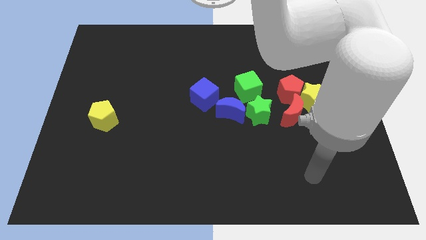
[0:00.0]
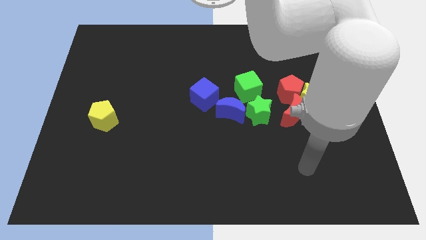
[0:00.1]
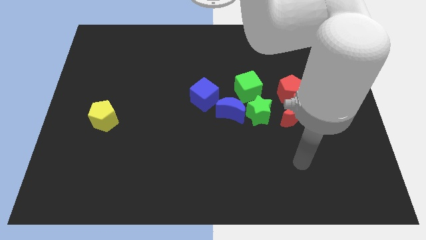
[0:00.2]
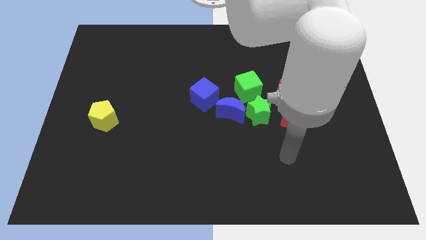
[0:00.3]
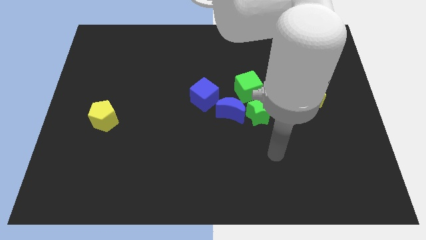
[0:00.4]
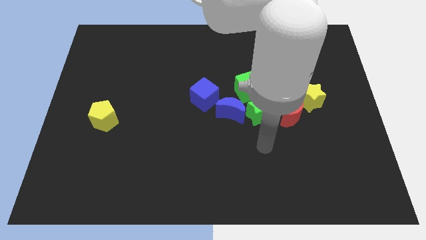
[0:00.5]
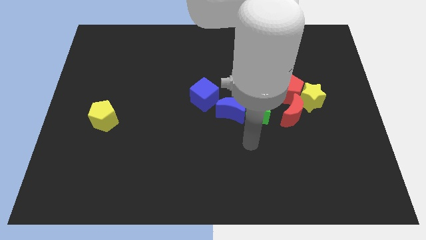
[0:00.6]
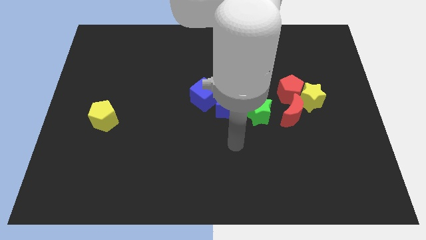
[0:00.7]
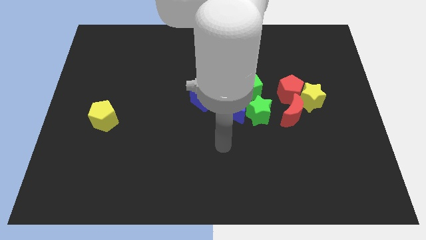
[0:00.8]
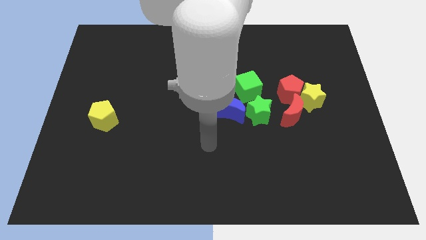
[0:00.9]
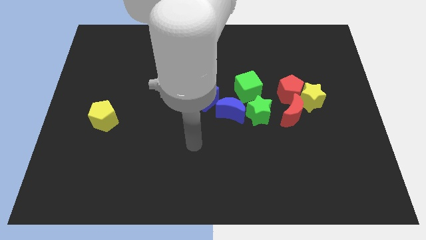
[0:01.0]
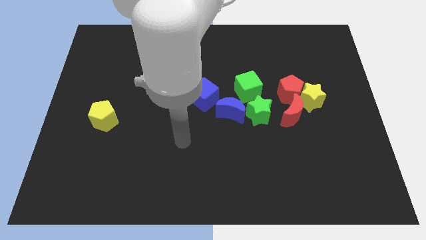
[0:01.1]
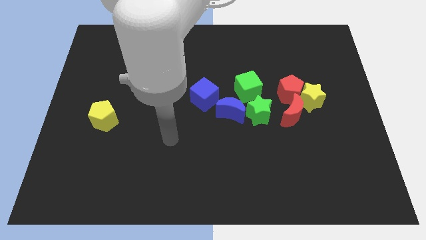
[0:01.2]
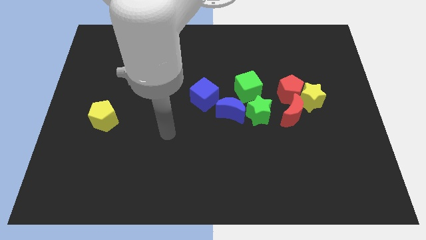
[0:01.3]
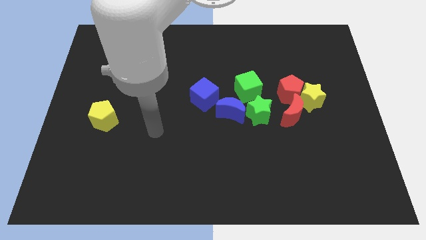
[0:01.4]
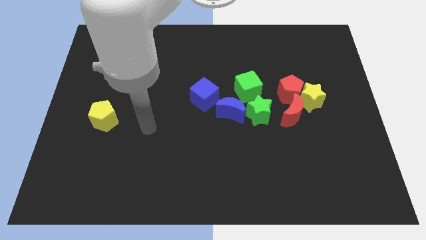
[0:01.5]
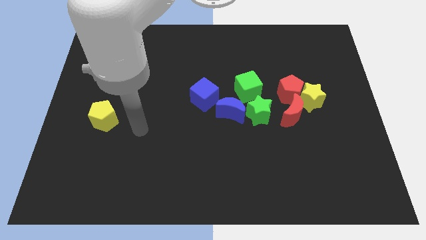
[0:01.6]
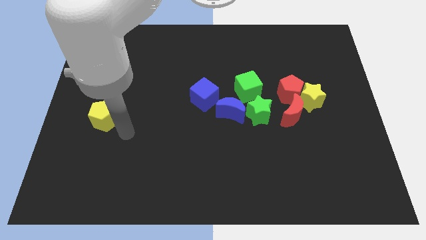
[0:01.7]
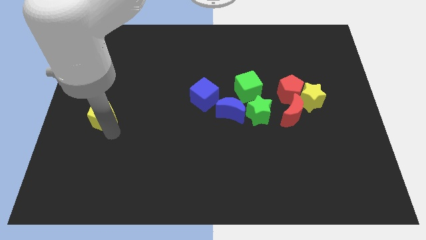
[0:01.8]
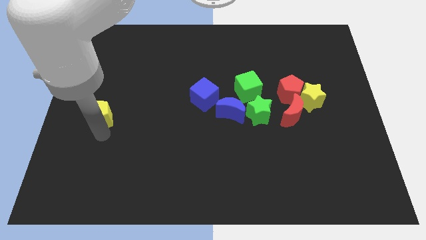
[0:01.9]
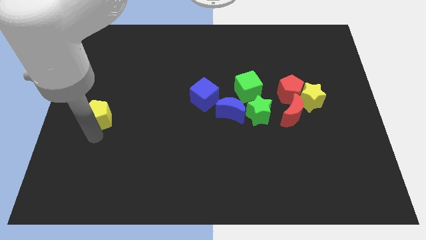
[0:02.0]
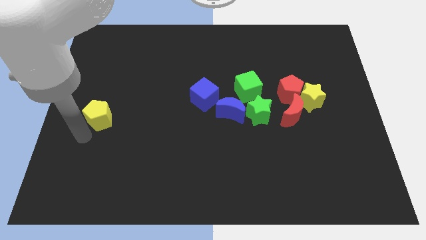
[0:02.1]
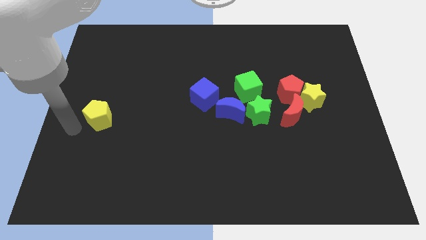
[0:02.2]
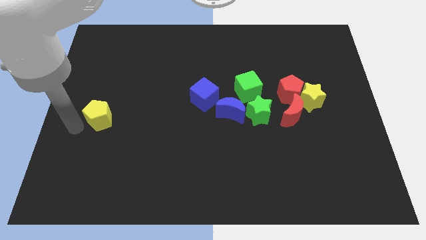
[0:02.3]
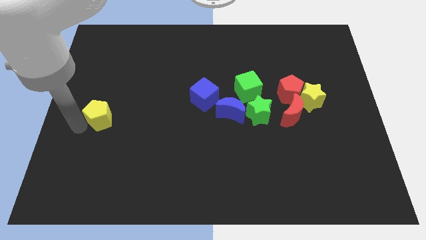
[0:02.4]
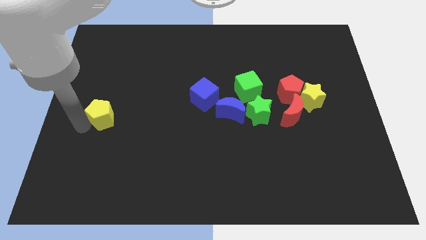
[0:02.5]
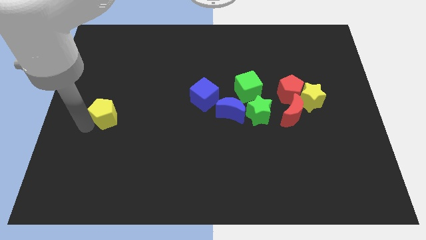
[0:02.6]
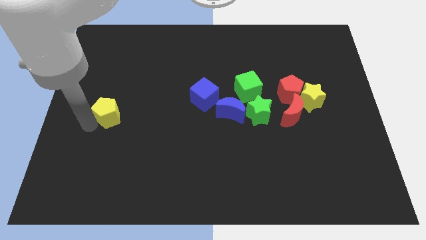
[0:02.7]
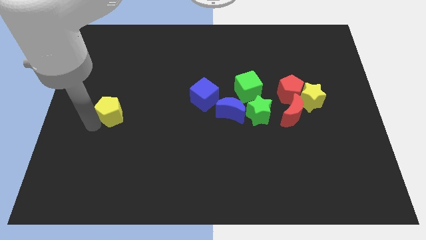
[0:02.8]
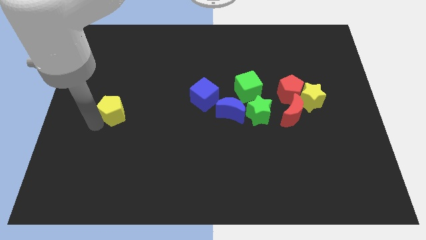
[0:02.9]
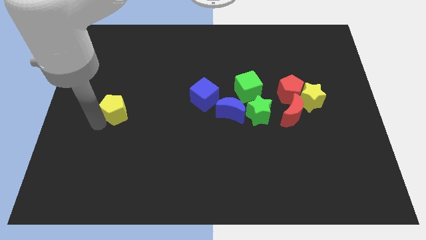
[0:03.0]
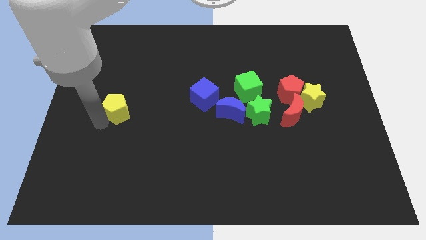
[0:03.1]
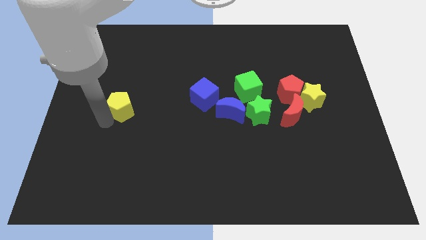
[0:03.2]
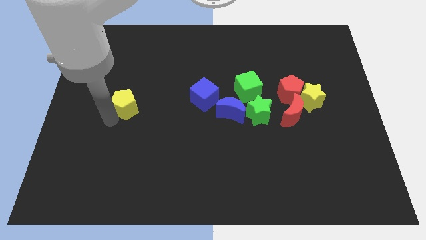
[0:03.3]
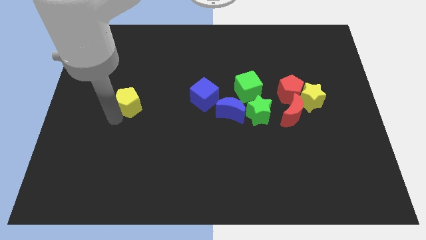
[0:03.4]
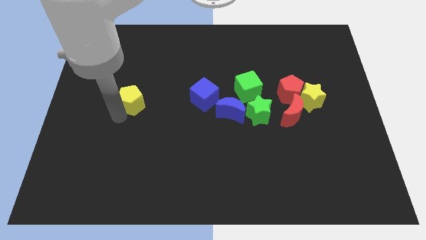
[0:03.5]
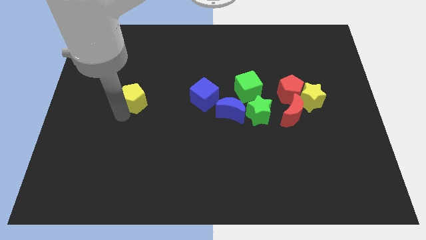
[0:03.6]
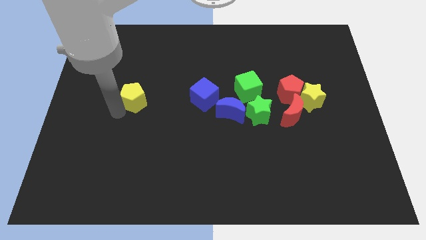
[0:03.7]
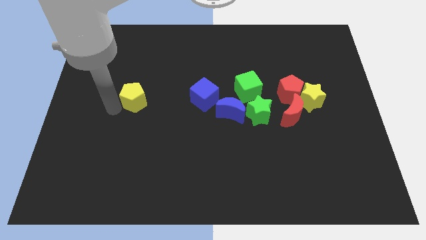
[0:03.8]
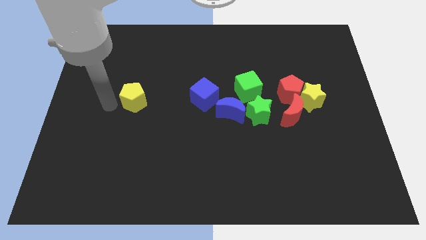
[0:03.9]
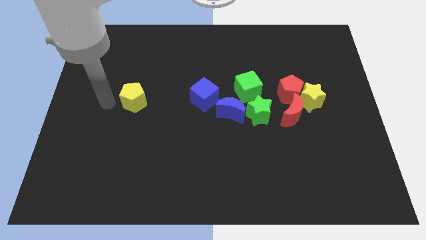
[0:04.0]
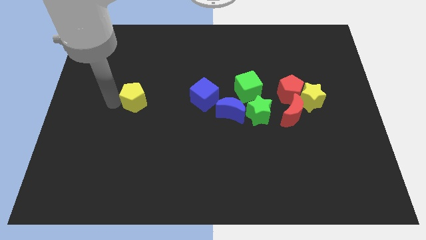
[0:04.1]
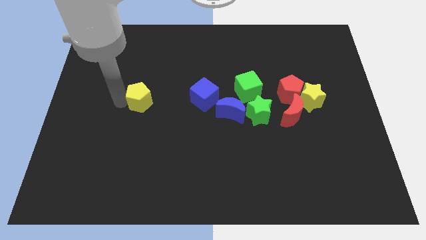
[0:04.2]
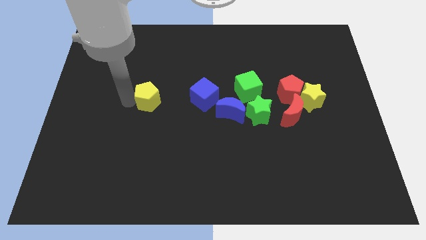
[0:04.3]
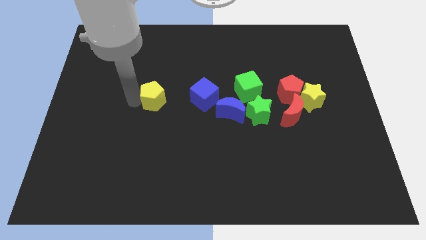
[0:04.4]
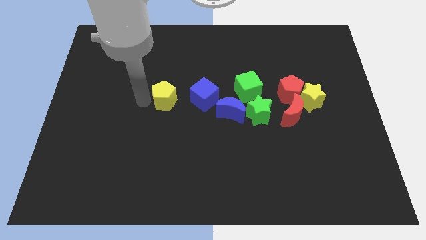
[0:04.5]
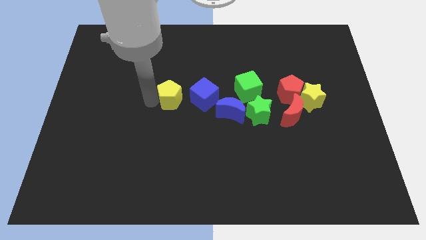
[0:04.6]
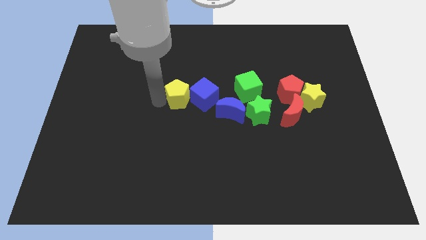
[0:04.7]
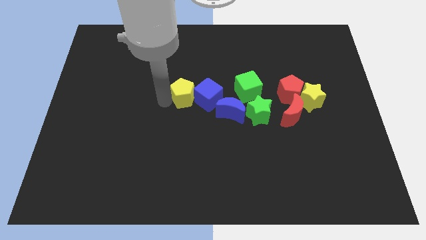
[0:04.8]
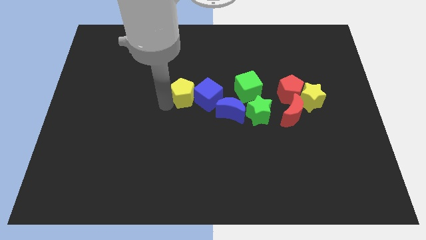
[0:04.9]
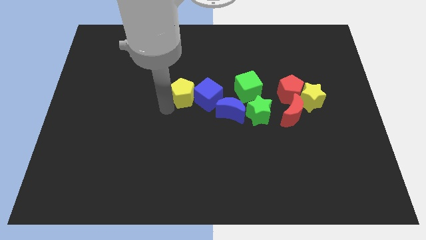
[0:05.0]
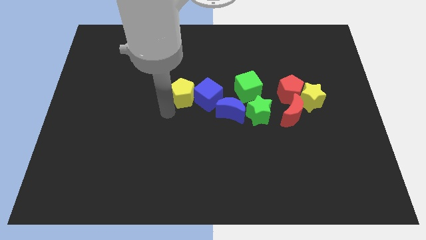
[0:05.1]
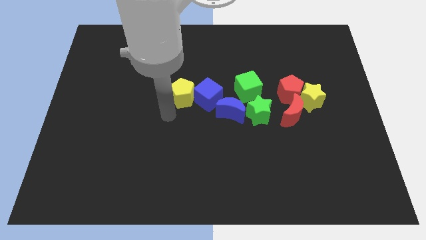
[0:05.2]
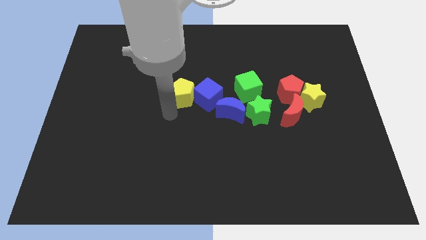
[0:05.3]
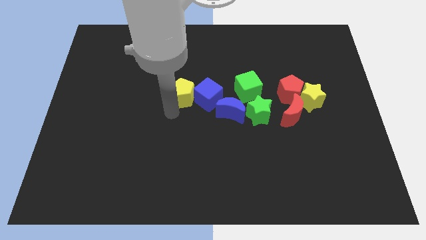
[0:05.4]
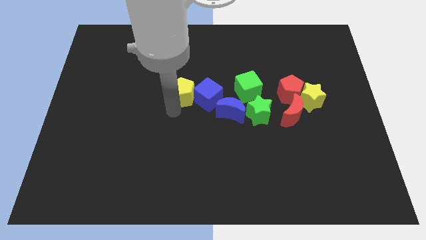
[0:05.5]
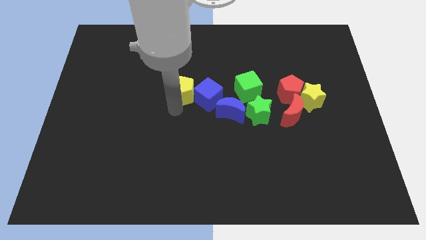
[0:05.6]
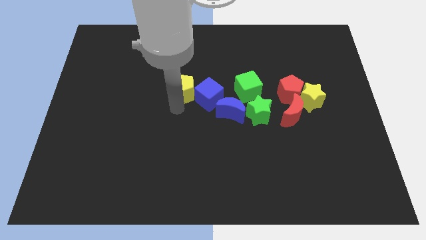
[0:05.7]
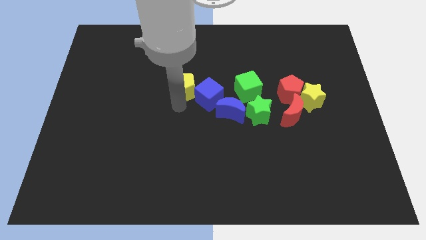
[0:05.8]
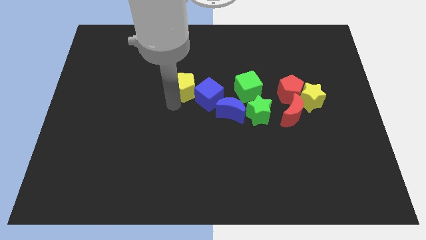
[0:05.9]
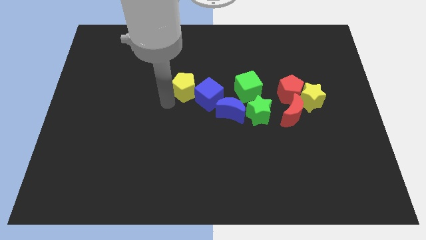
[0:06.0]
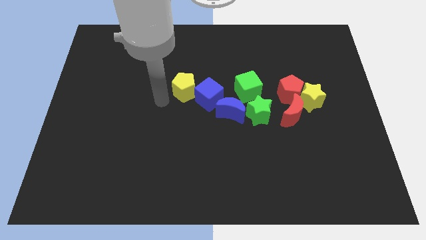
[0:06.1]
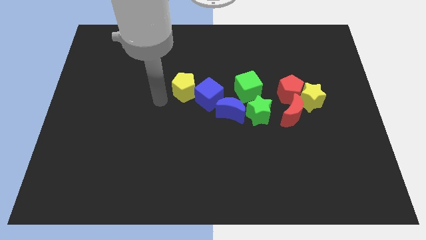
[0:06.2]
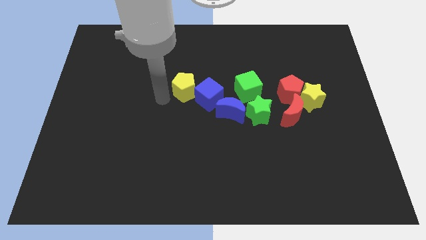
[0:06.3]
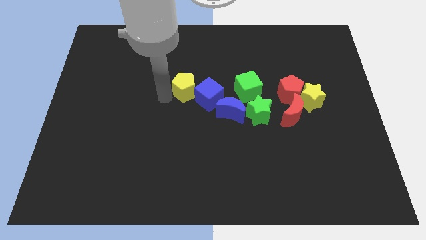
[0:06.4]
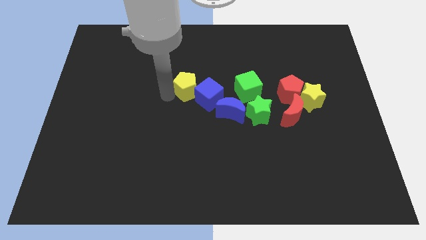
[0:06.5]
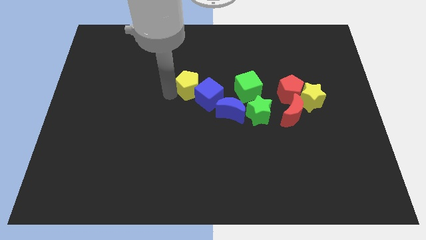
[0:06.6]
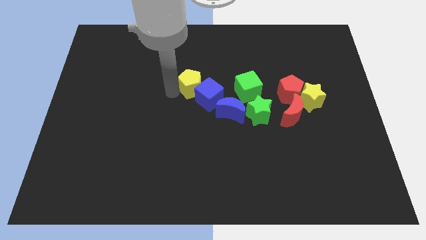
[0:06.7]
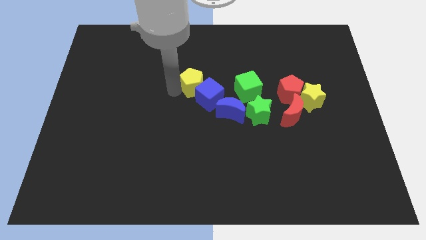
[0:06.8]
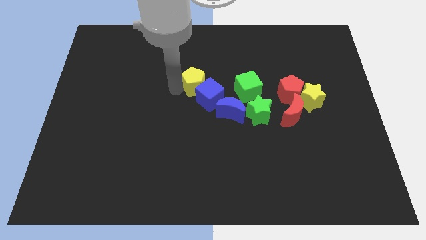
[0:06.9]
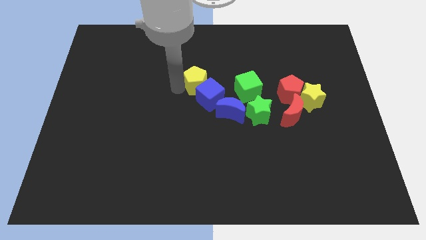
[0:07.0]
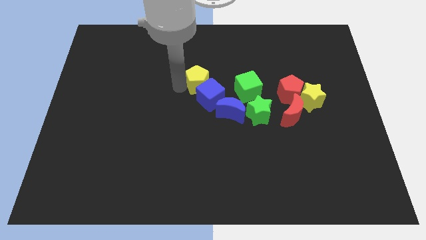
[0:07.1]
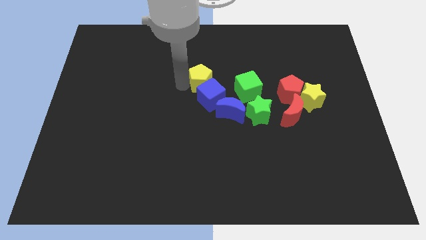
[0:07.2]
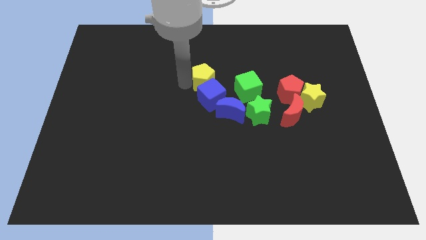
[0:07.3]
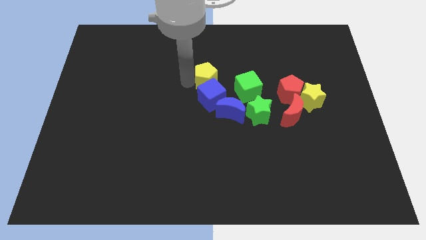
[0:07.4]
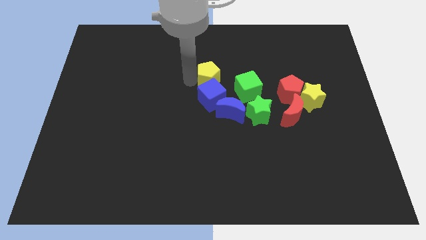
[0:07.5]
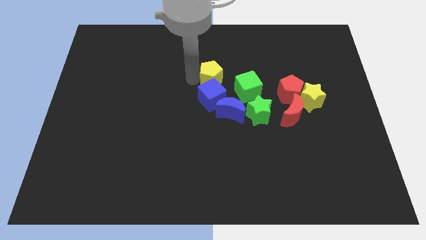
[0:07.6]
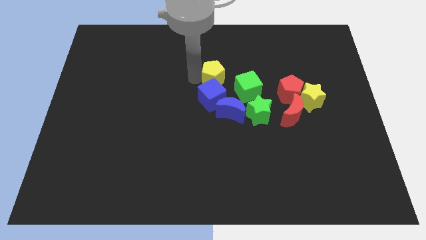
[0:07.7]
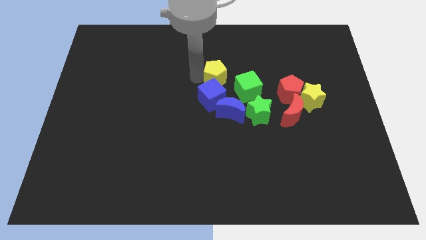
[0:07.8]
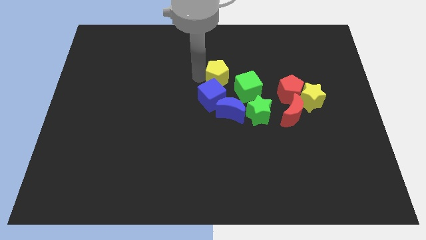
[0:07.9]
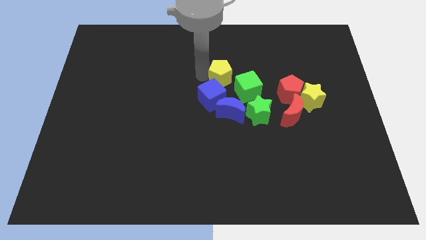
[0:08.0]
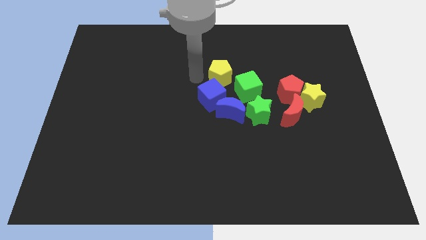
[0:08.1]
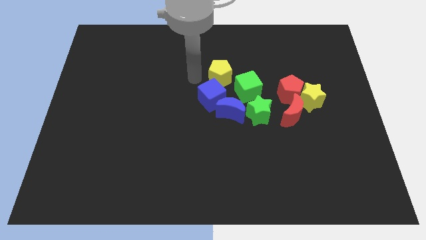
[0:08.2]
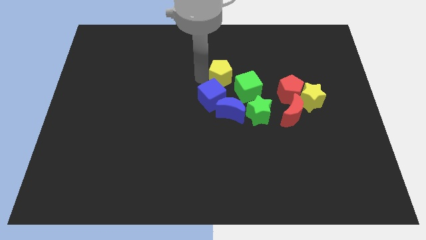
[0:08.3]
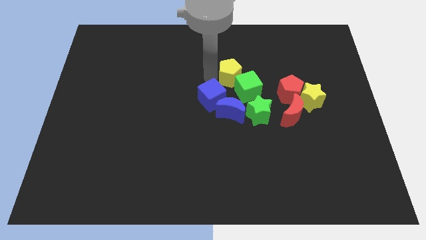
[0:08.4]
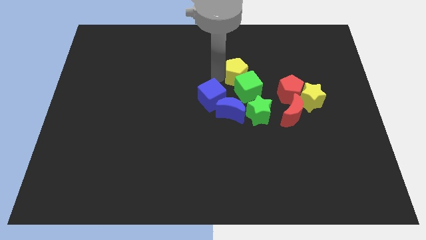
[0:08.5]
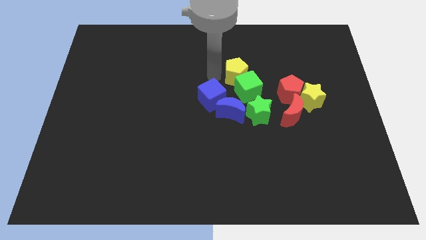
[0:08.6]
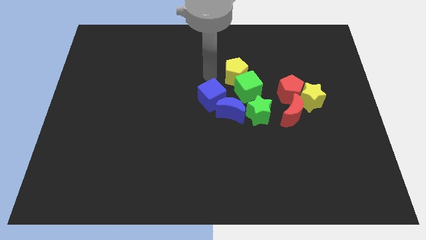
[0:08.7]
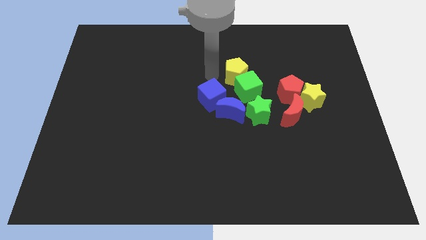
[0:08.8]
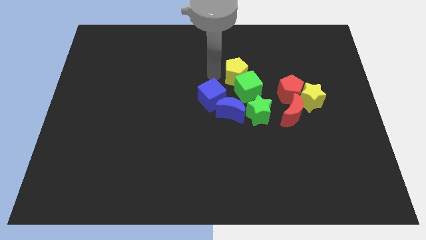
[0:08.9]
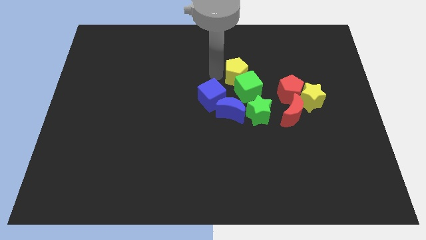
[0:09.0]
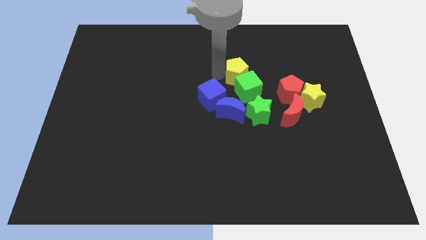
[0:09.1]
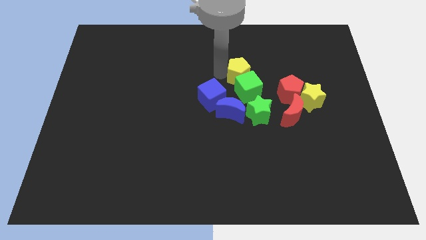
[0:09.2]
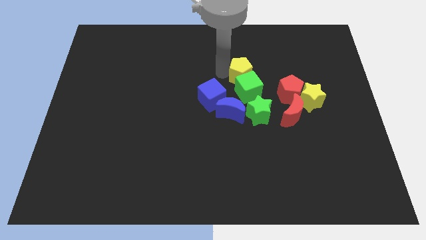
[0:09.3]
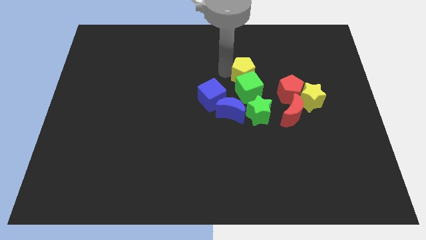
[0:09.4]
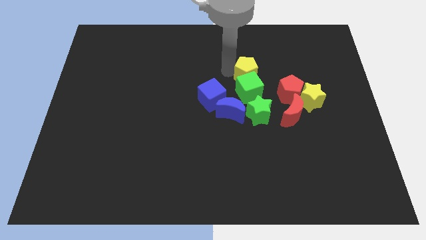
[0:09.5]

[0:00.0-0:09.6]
put the yellow pentagon diagonally up and to the left of the red pentagon
